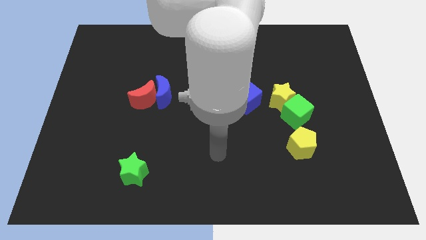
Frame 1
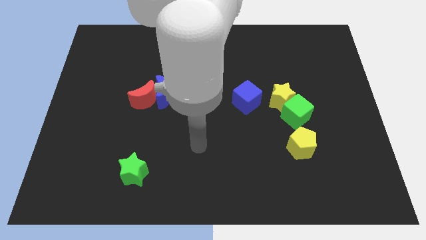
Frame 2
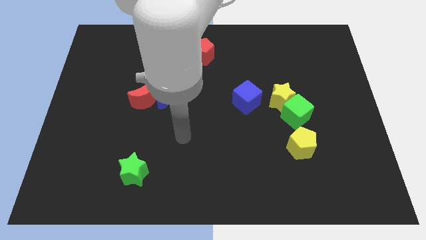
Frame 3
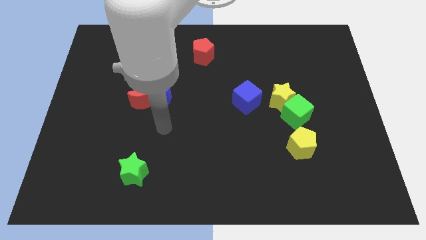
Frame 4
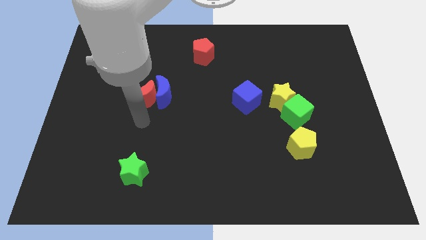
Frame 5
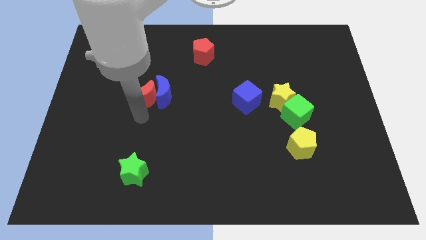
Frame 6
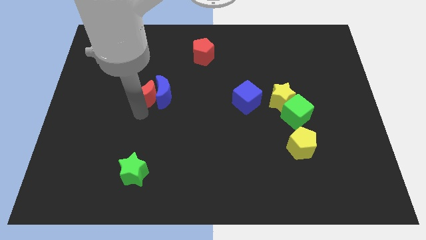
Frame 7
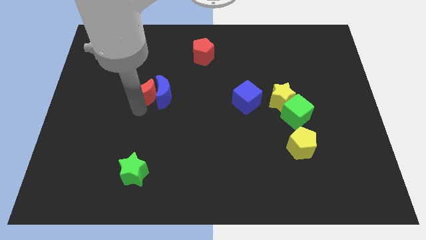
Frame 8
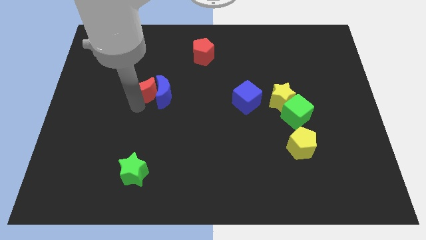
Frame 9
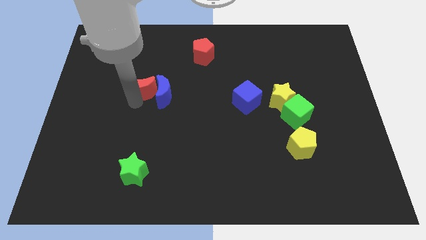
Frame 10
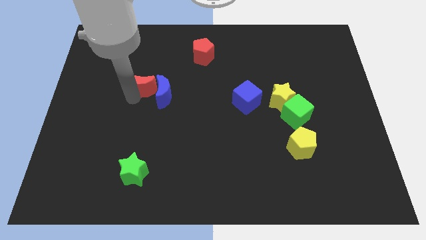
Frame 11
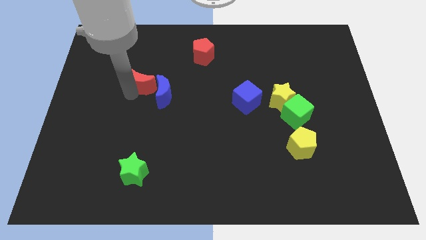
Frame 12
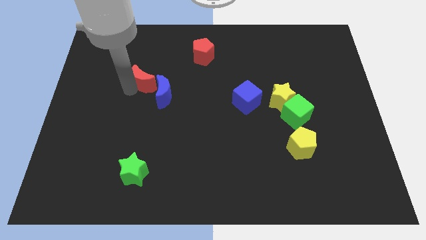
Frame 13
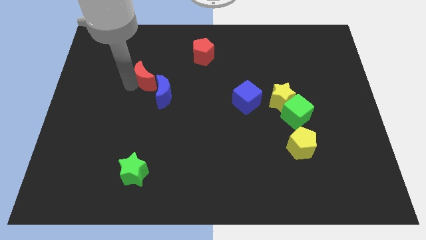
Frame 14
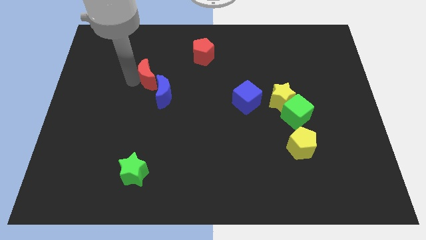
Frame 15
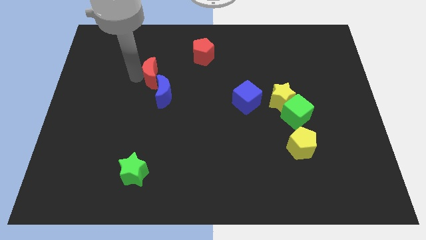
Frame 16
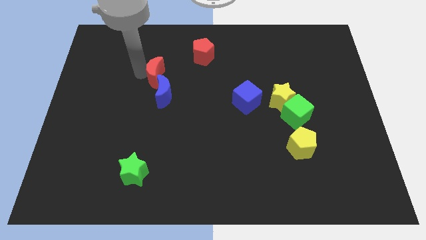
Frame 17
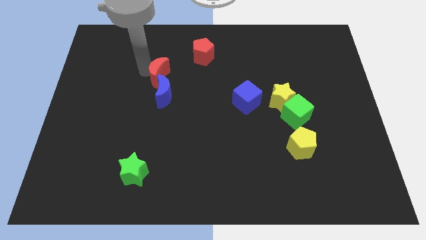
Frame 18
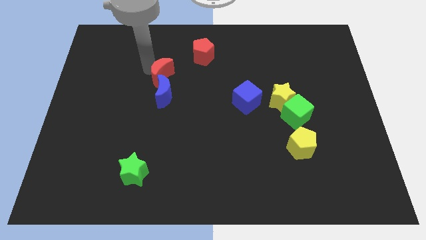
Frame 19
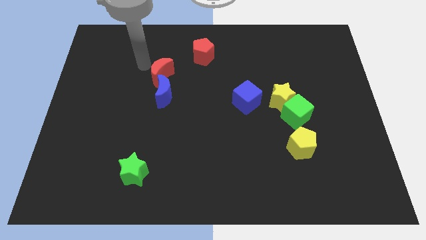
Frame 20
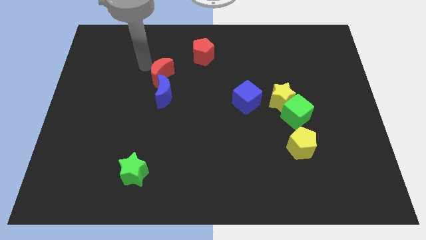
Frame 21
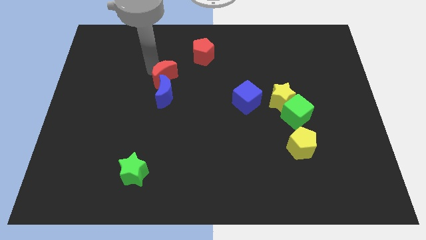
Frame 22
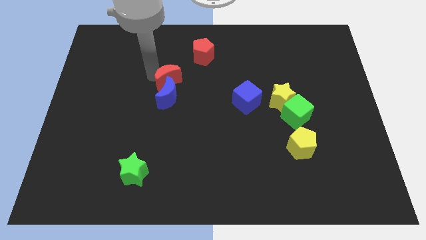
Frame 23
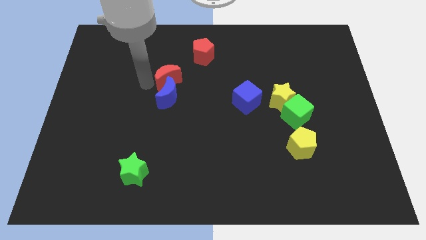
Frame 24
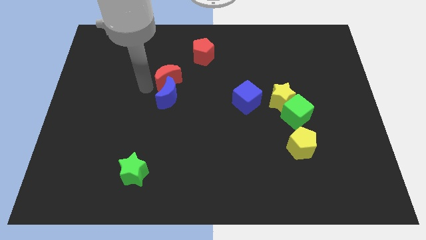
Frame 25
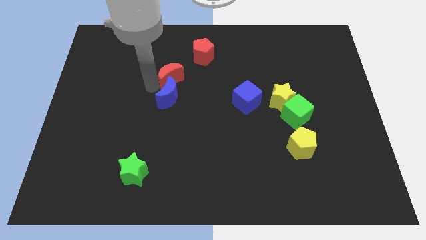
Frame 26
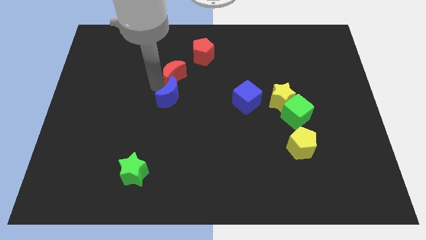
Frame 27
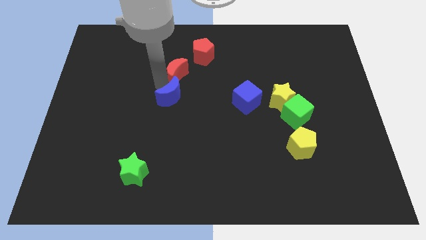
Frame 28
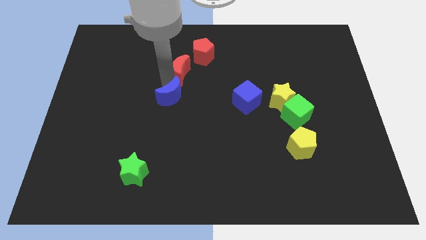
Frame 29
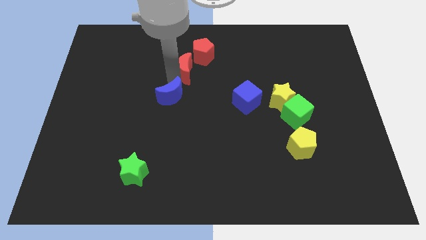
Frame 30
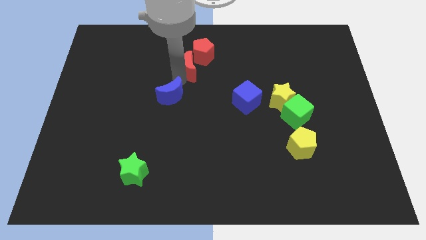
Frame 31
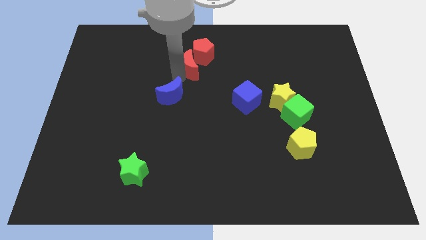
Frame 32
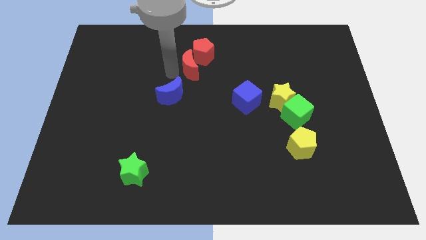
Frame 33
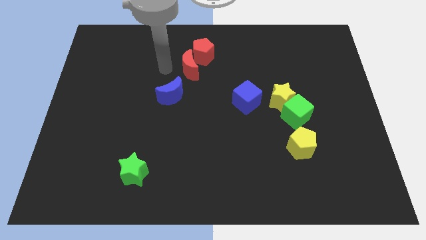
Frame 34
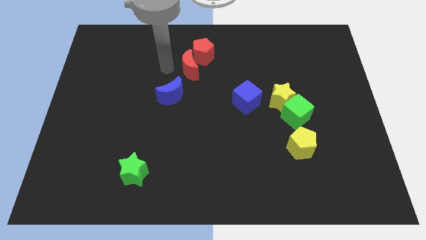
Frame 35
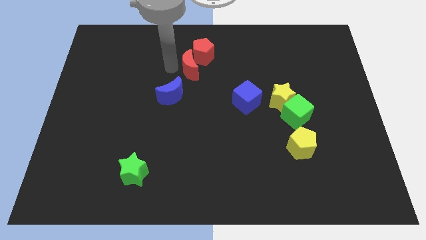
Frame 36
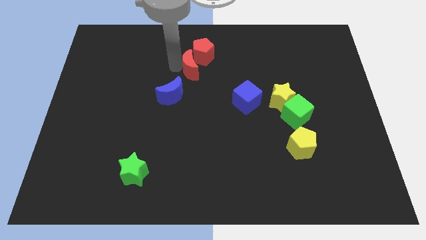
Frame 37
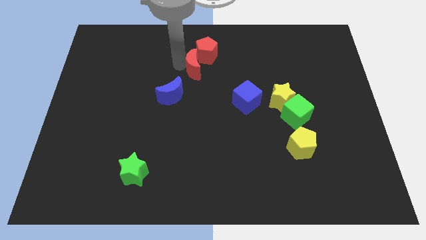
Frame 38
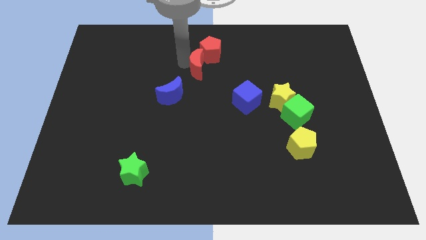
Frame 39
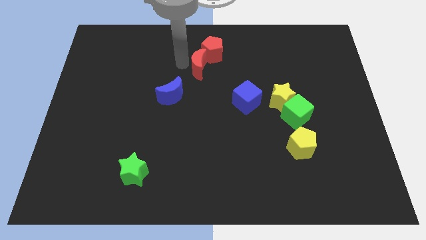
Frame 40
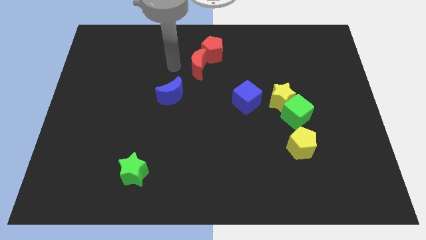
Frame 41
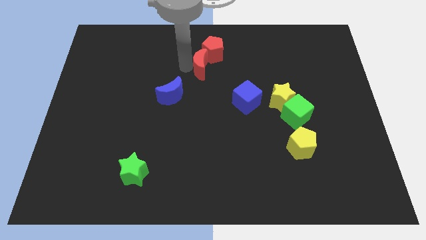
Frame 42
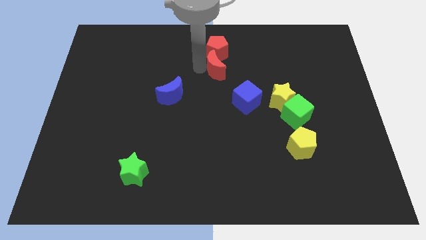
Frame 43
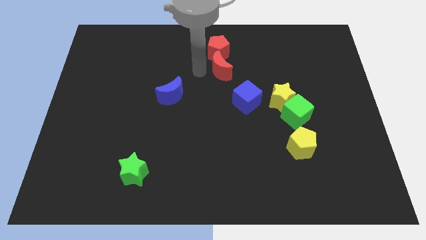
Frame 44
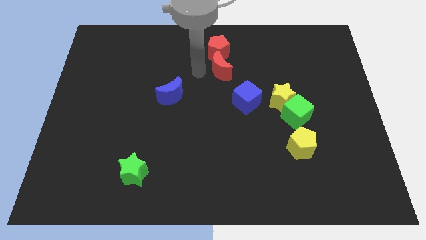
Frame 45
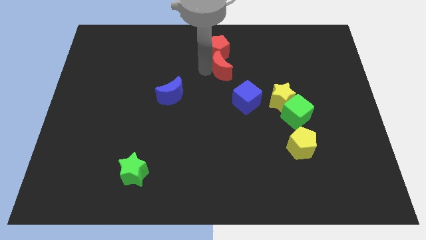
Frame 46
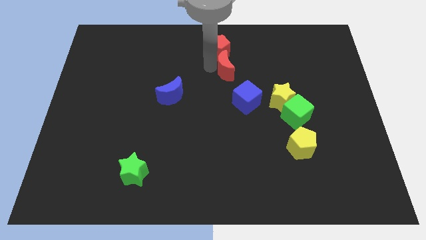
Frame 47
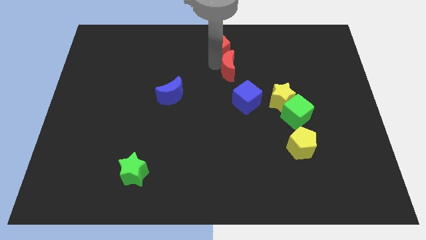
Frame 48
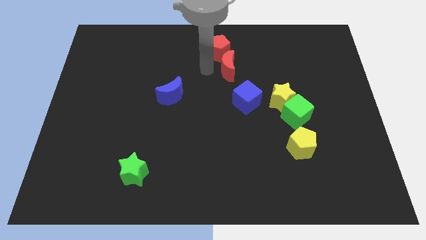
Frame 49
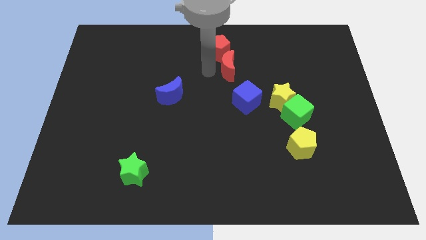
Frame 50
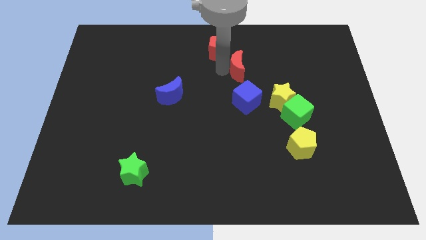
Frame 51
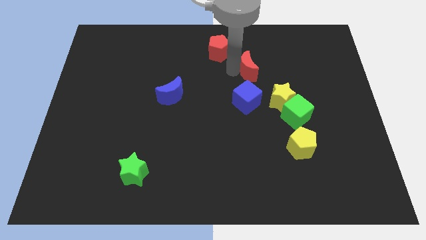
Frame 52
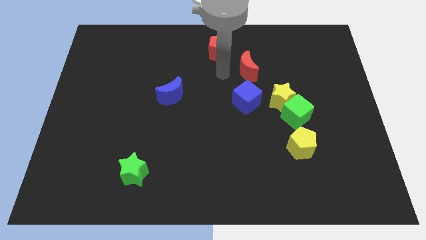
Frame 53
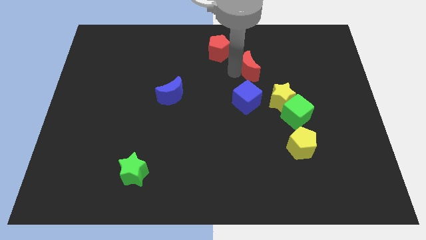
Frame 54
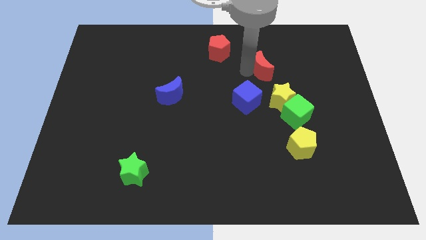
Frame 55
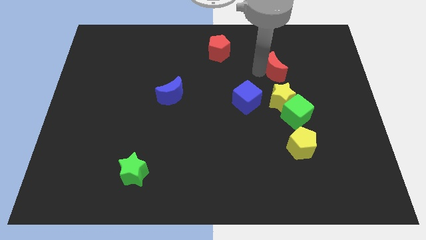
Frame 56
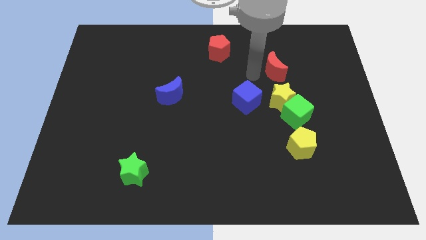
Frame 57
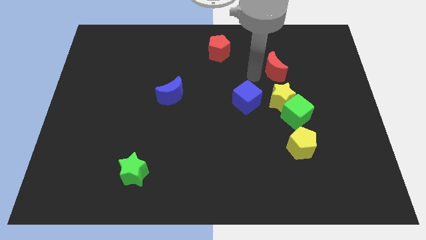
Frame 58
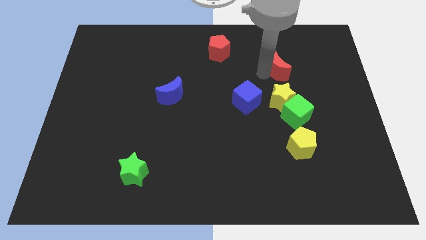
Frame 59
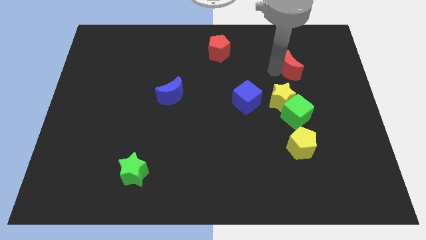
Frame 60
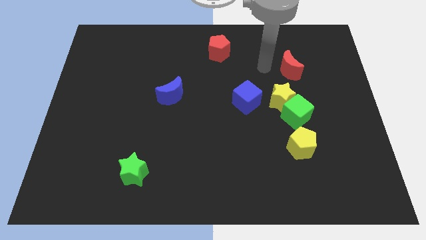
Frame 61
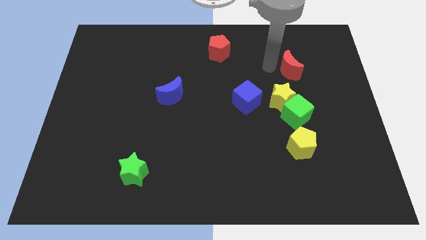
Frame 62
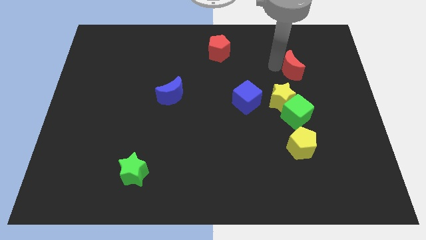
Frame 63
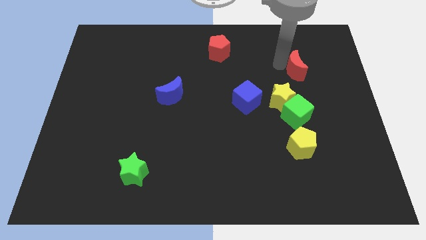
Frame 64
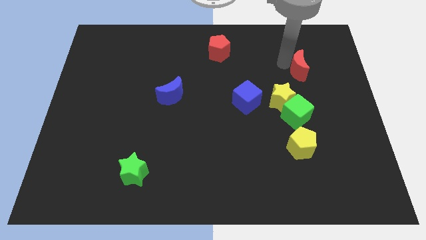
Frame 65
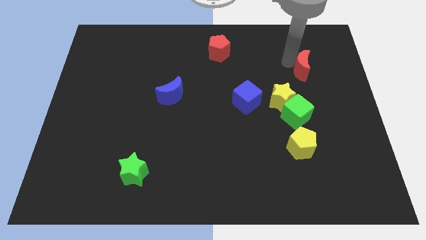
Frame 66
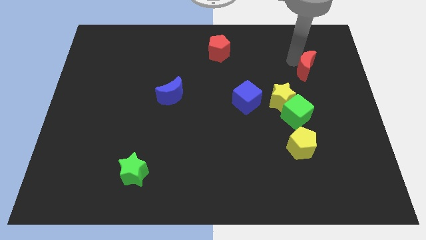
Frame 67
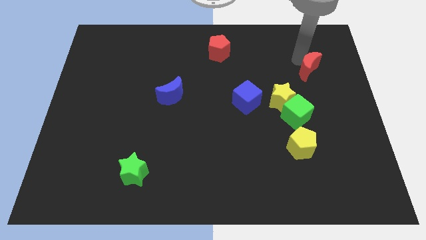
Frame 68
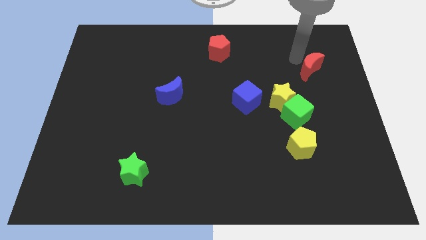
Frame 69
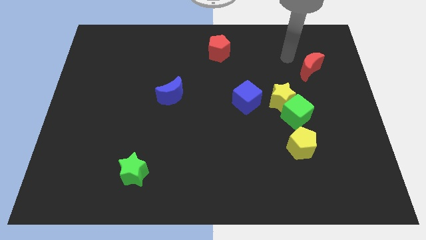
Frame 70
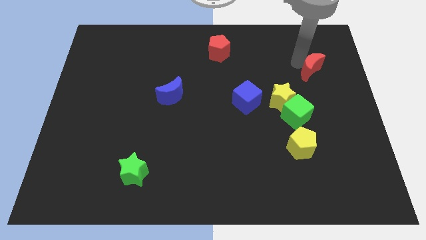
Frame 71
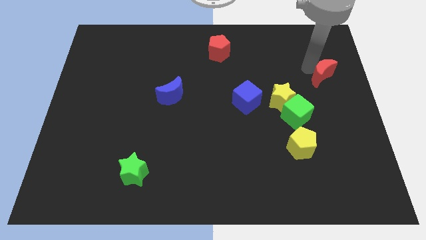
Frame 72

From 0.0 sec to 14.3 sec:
slide the red moon to the right side
